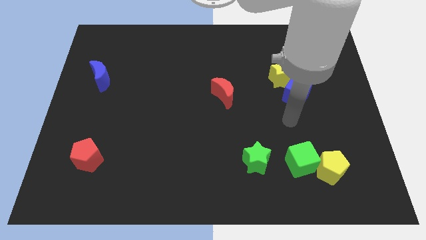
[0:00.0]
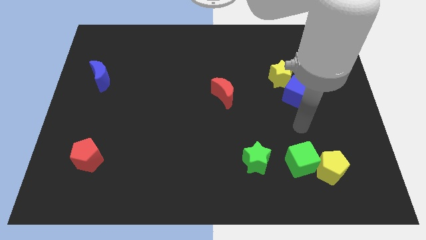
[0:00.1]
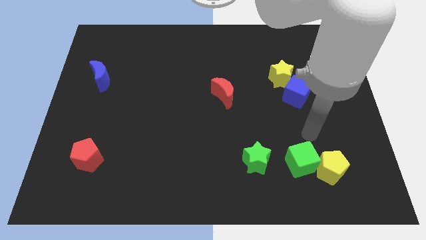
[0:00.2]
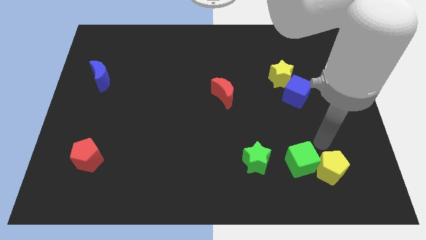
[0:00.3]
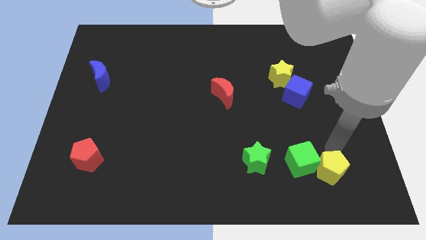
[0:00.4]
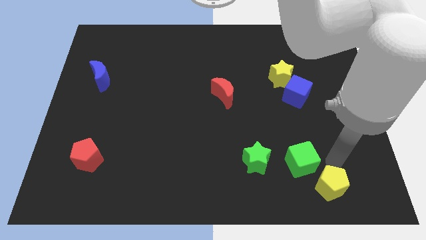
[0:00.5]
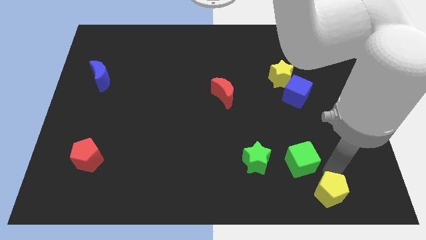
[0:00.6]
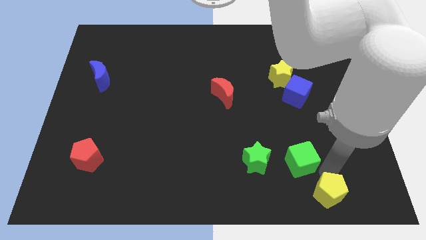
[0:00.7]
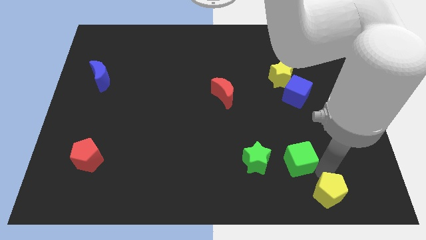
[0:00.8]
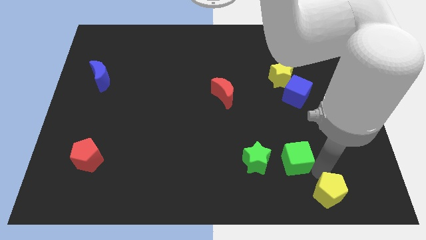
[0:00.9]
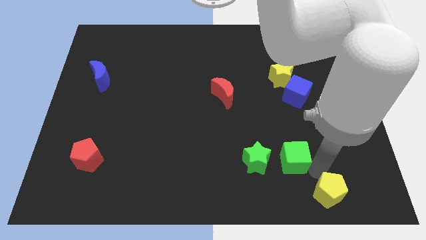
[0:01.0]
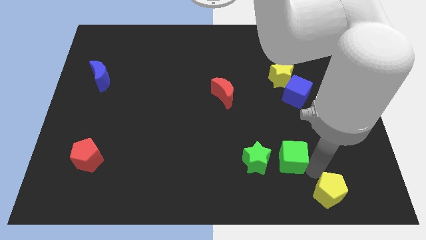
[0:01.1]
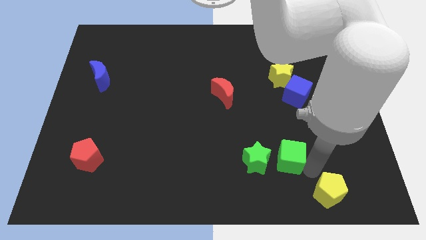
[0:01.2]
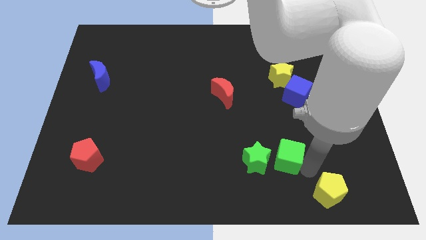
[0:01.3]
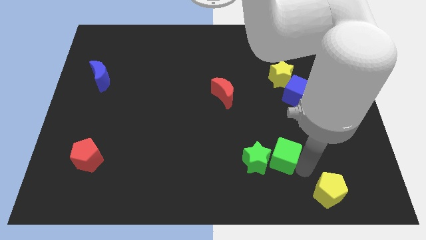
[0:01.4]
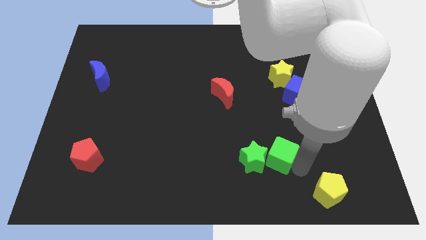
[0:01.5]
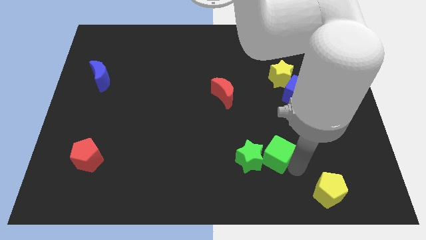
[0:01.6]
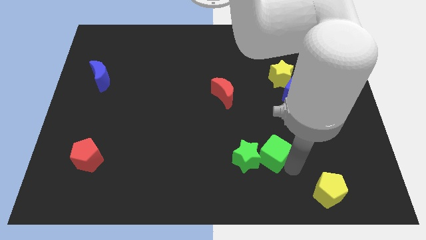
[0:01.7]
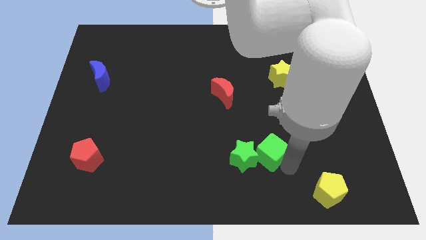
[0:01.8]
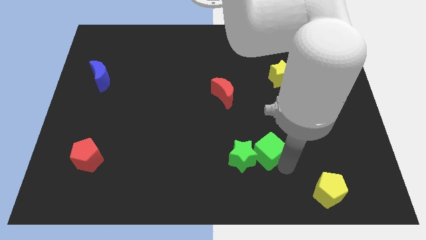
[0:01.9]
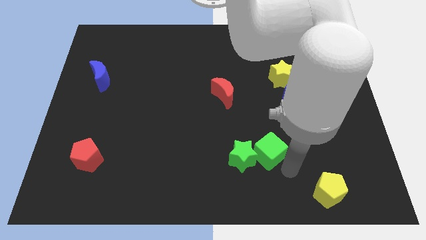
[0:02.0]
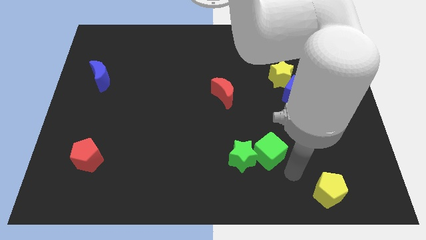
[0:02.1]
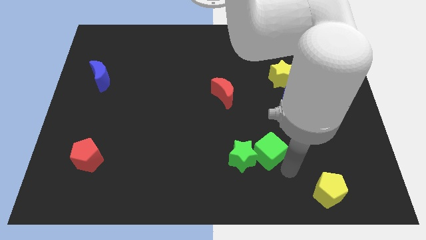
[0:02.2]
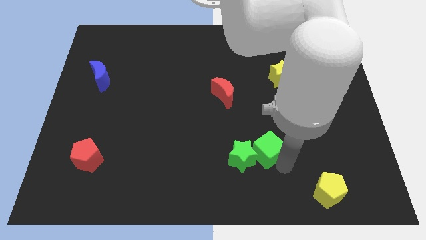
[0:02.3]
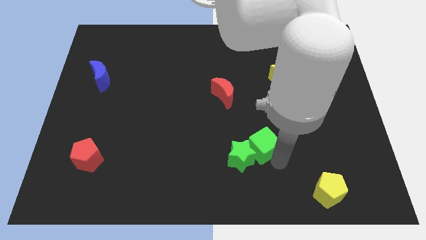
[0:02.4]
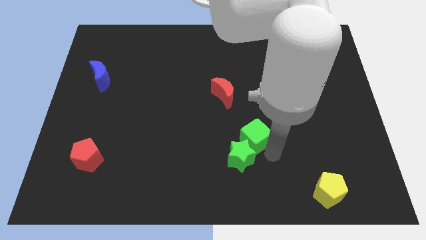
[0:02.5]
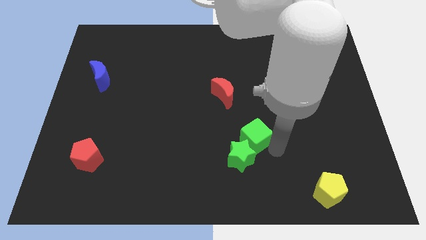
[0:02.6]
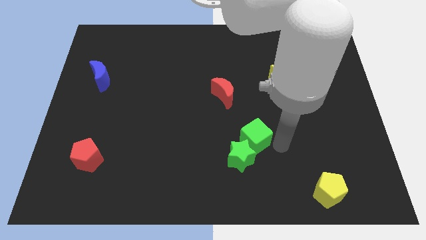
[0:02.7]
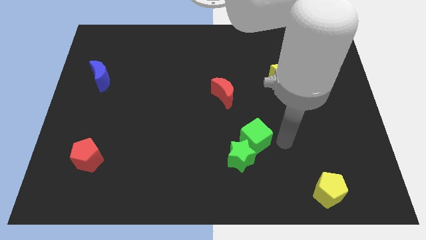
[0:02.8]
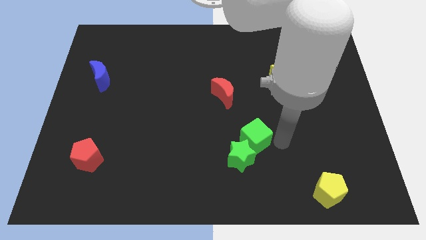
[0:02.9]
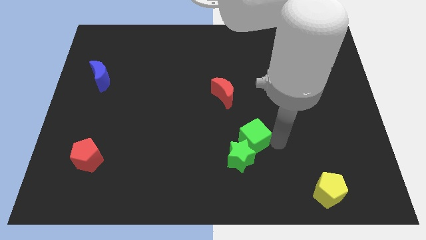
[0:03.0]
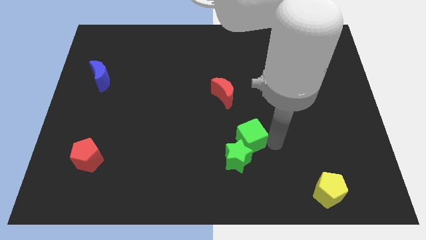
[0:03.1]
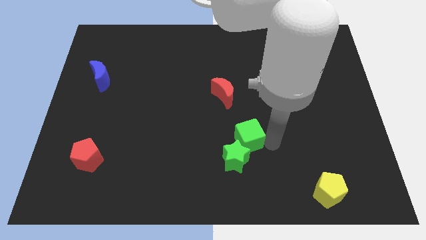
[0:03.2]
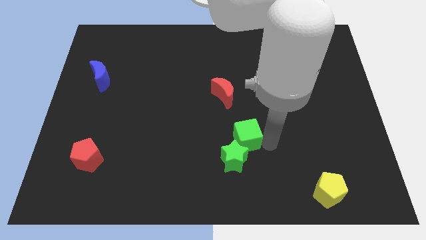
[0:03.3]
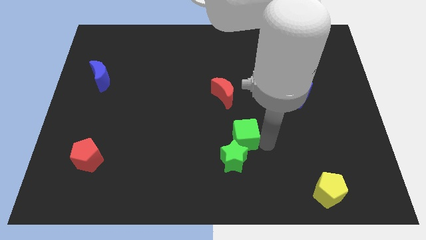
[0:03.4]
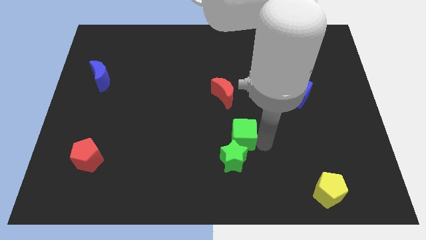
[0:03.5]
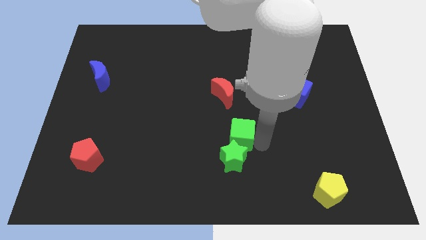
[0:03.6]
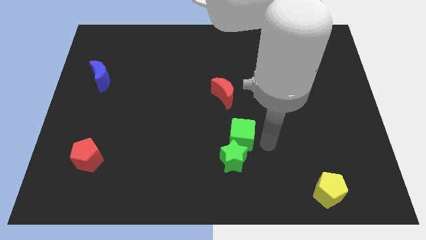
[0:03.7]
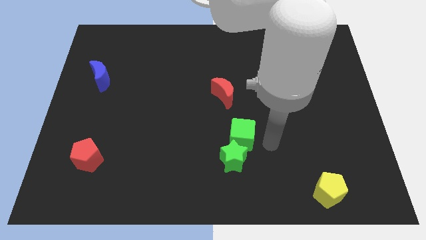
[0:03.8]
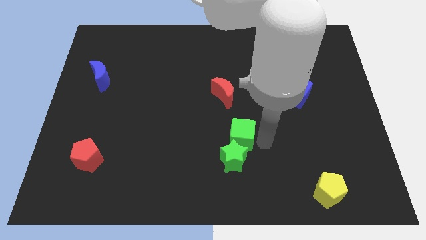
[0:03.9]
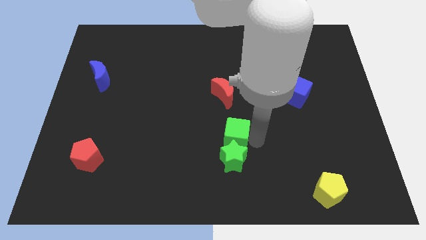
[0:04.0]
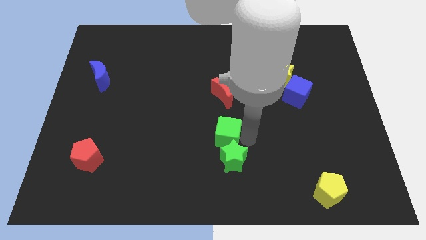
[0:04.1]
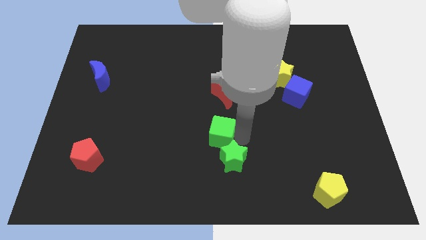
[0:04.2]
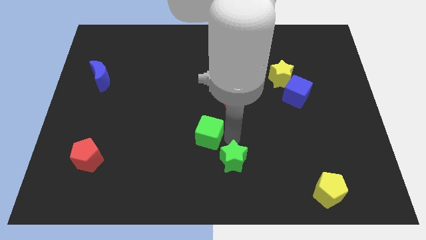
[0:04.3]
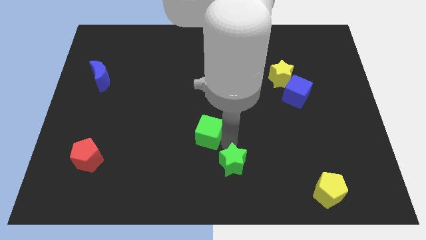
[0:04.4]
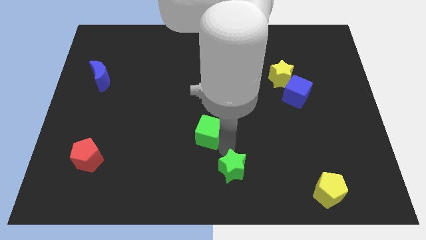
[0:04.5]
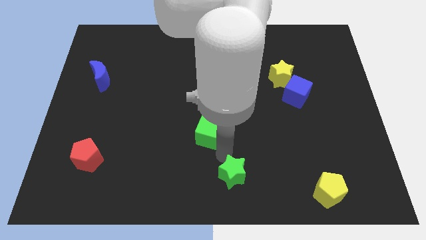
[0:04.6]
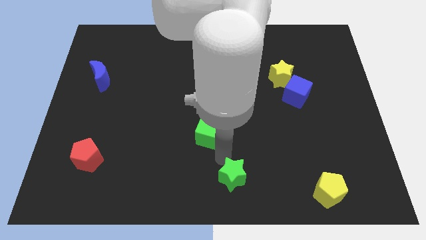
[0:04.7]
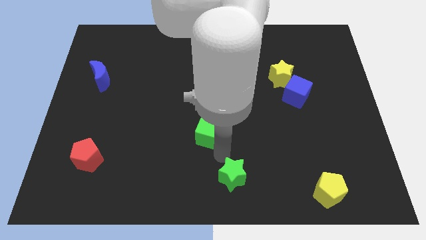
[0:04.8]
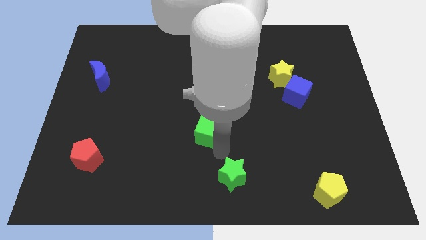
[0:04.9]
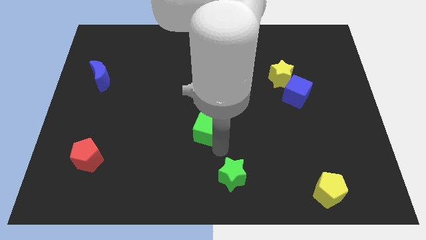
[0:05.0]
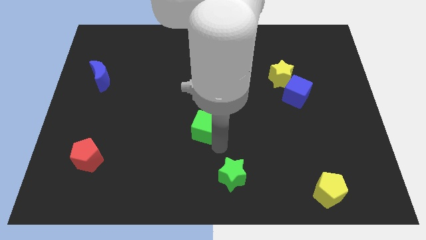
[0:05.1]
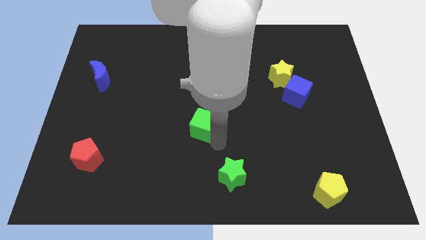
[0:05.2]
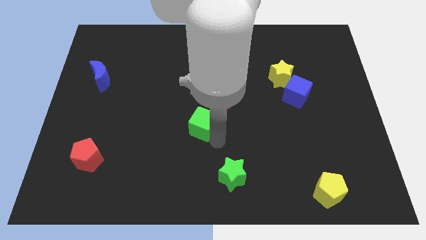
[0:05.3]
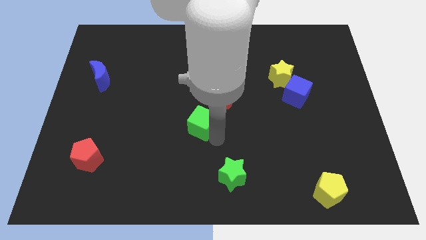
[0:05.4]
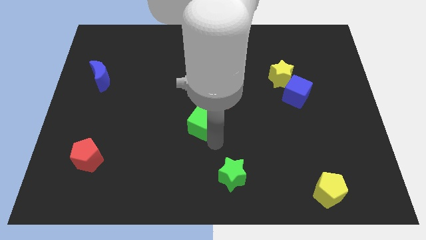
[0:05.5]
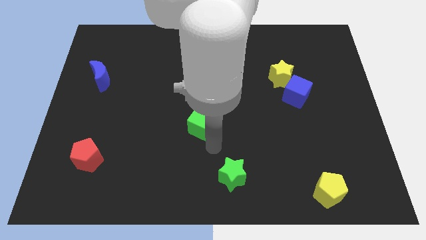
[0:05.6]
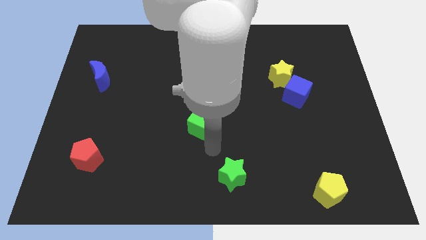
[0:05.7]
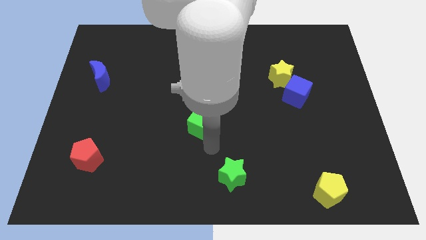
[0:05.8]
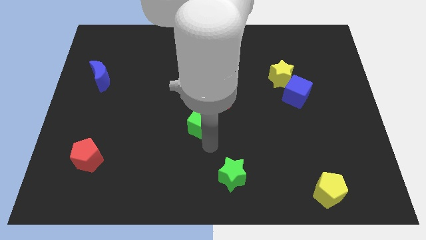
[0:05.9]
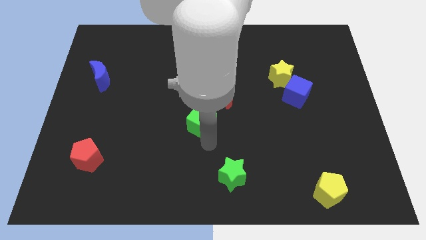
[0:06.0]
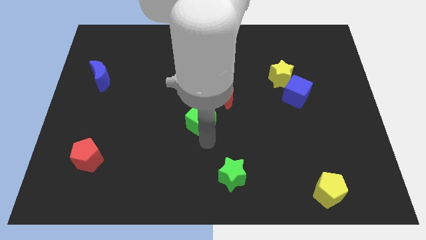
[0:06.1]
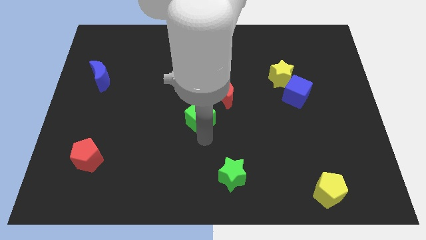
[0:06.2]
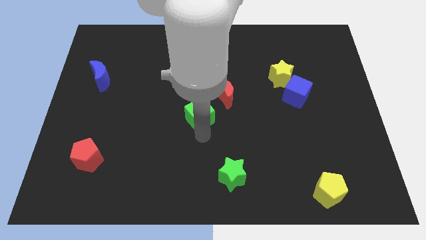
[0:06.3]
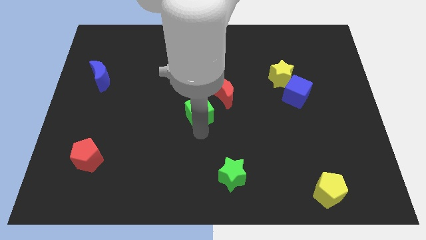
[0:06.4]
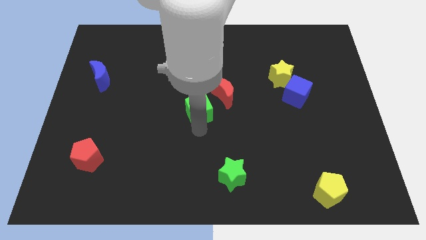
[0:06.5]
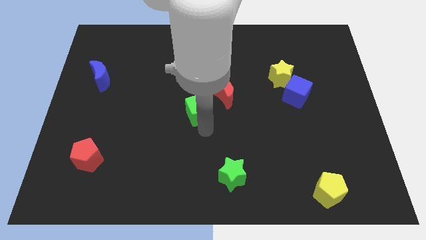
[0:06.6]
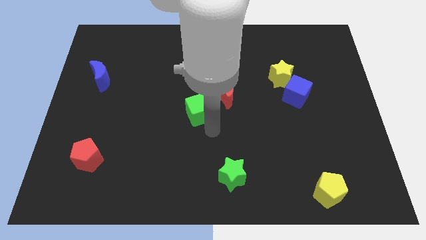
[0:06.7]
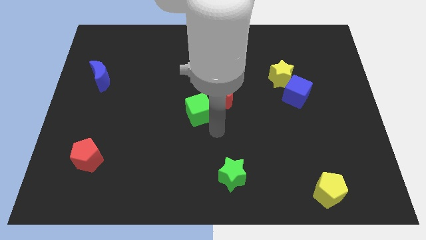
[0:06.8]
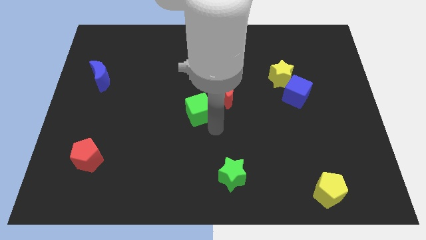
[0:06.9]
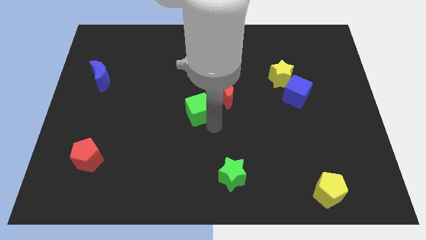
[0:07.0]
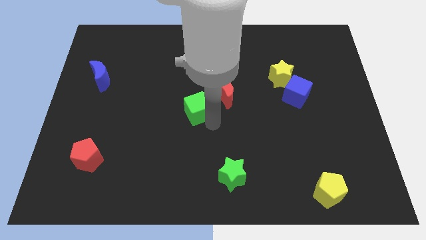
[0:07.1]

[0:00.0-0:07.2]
move the green cube to the left side of the red moon
